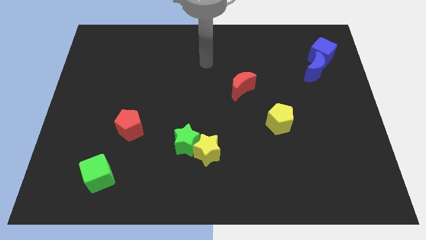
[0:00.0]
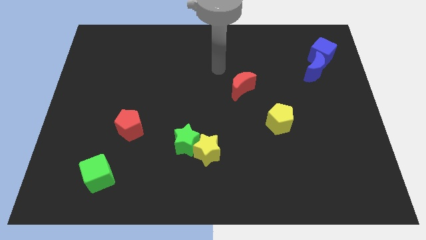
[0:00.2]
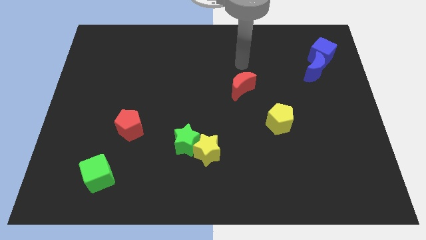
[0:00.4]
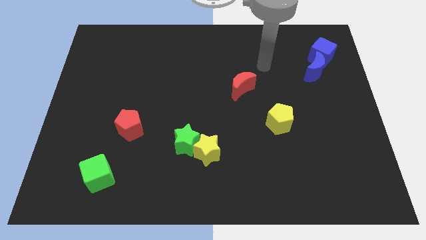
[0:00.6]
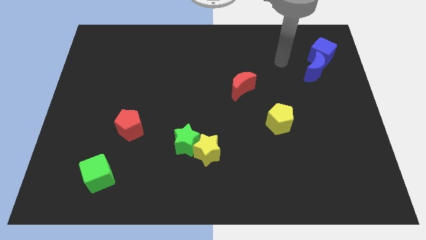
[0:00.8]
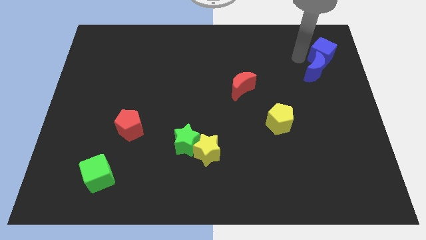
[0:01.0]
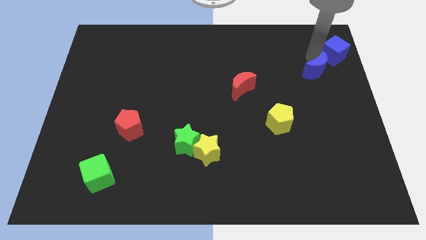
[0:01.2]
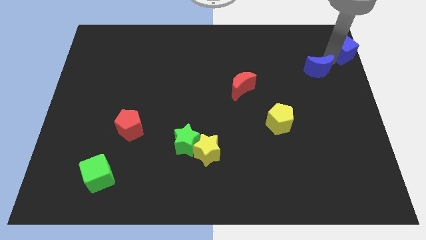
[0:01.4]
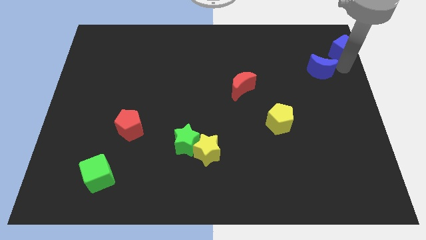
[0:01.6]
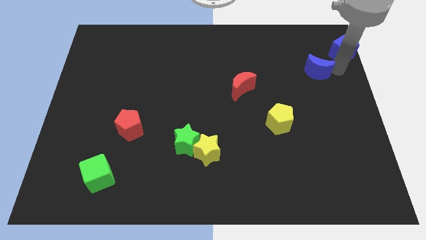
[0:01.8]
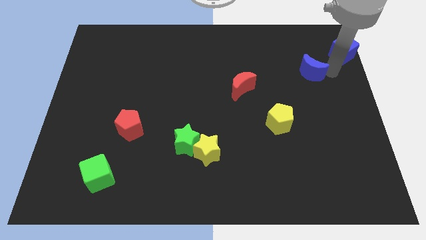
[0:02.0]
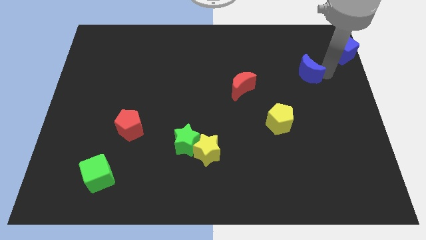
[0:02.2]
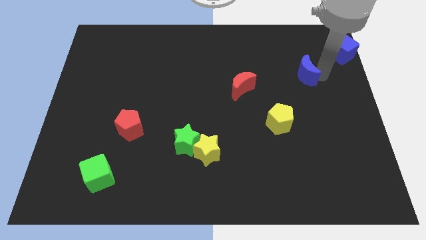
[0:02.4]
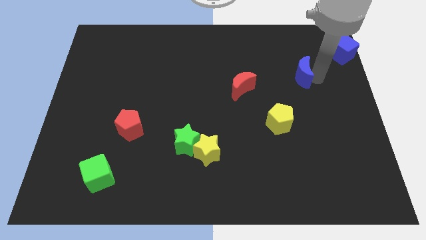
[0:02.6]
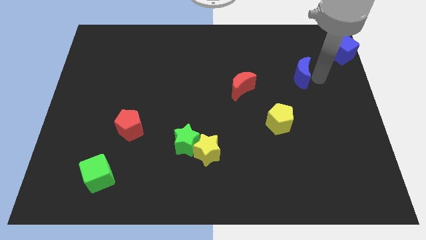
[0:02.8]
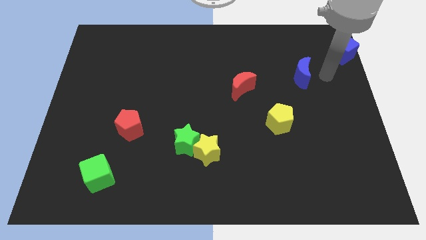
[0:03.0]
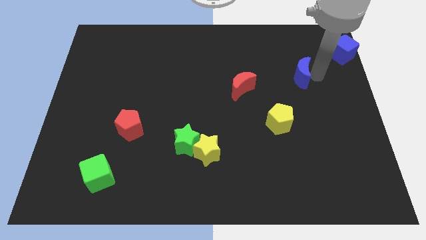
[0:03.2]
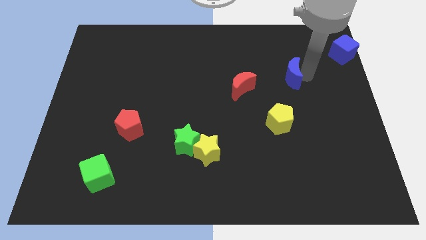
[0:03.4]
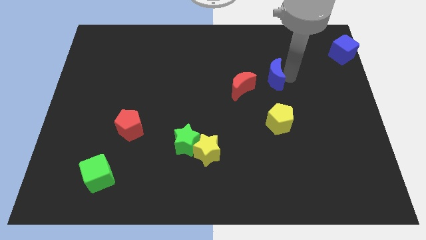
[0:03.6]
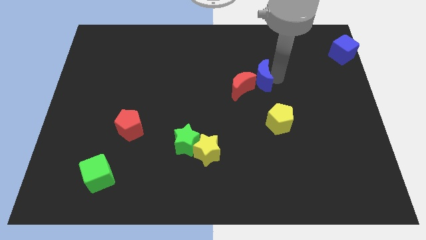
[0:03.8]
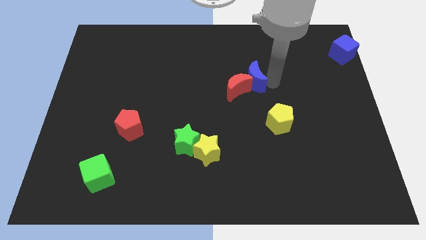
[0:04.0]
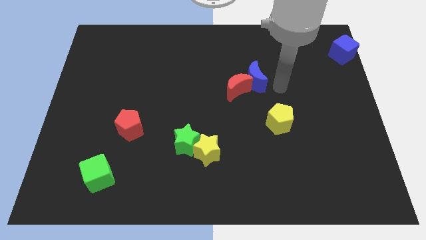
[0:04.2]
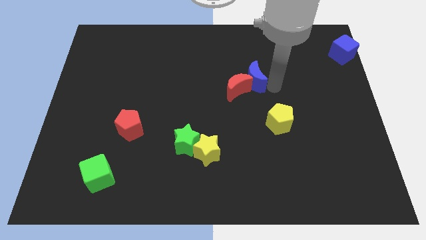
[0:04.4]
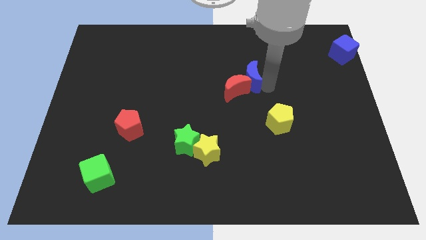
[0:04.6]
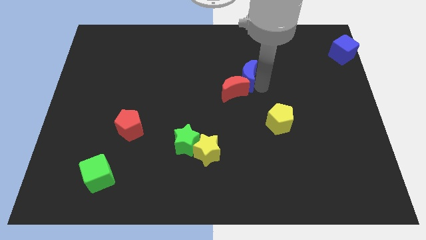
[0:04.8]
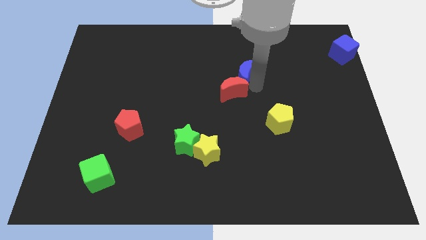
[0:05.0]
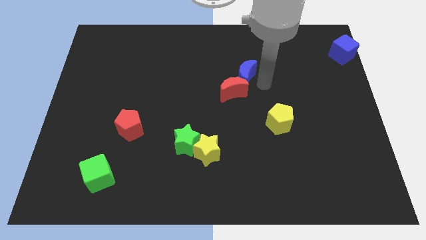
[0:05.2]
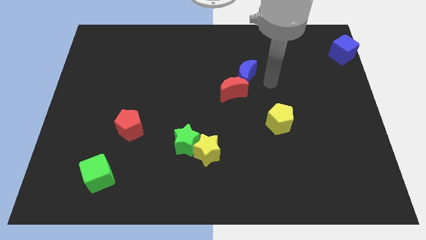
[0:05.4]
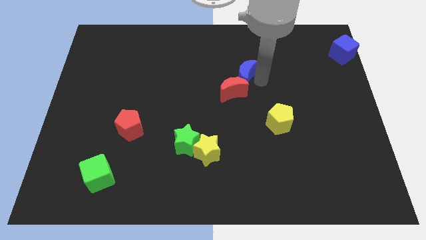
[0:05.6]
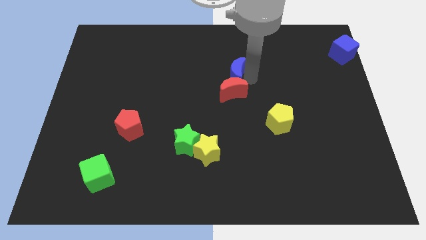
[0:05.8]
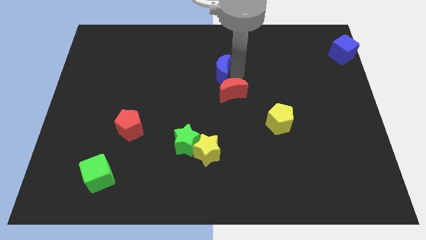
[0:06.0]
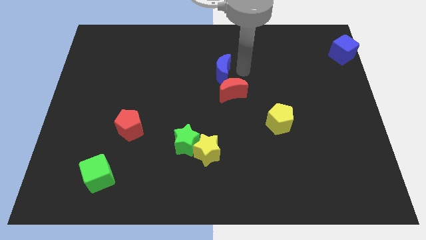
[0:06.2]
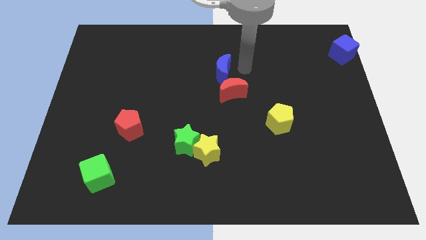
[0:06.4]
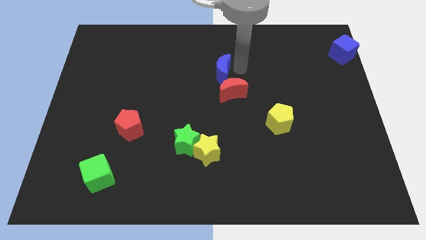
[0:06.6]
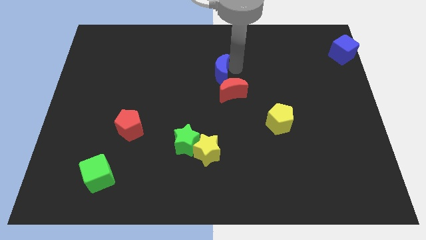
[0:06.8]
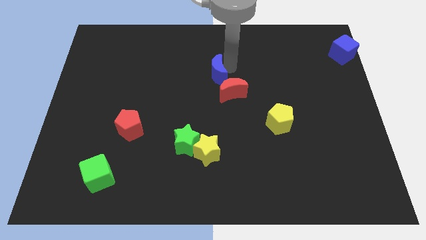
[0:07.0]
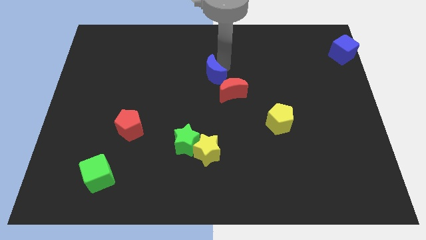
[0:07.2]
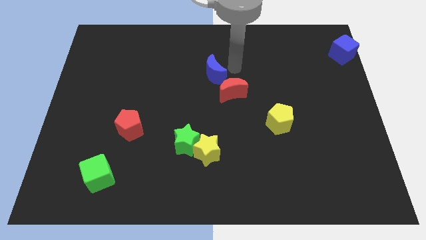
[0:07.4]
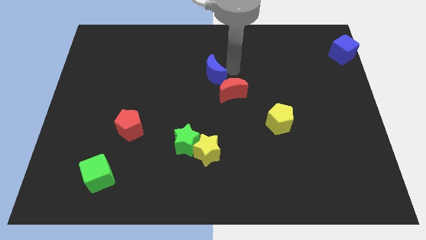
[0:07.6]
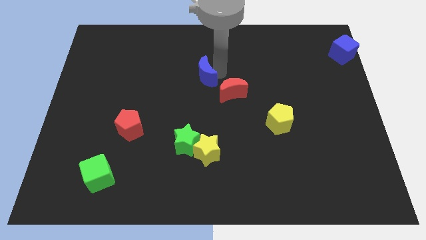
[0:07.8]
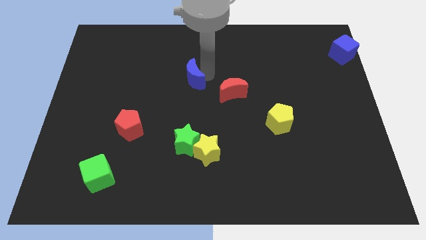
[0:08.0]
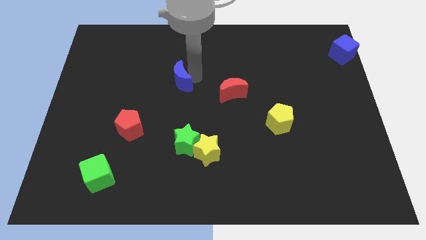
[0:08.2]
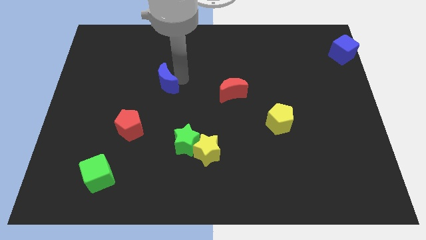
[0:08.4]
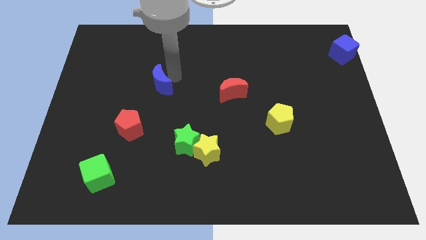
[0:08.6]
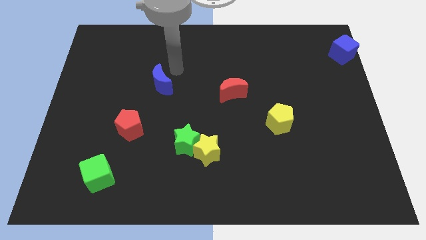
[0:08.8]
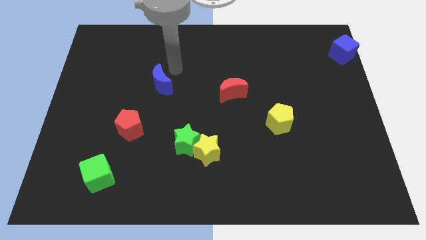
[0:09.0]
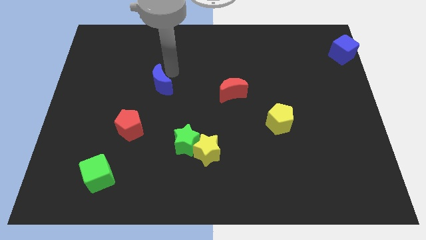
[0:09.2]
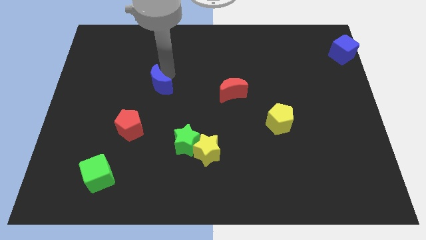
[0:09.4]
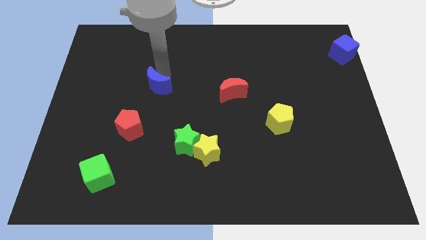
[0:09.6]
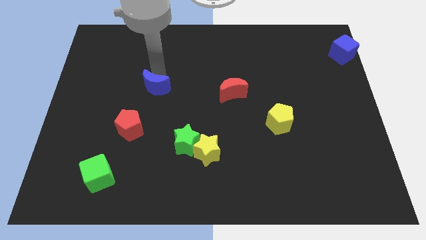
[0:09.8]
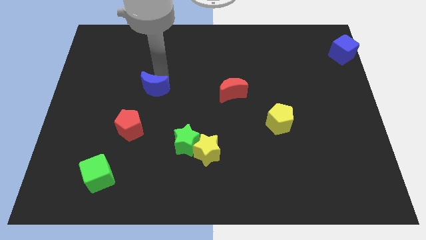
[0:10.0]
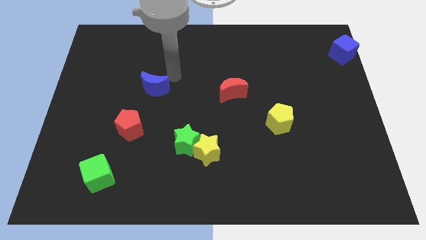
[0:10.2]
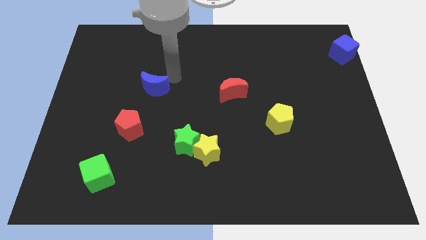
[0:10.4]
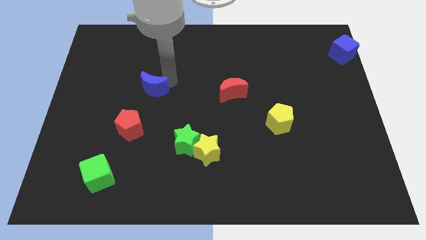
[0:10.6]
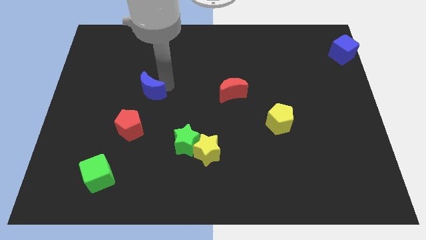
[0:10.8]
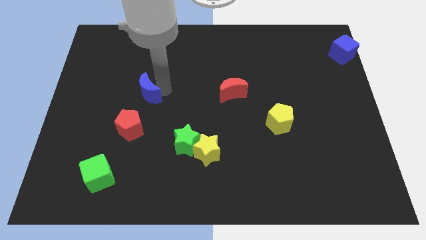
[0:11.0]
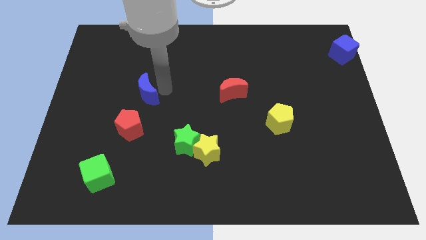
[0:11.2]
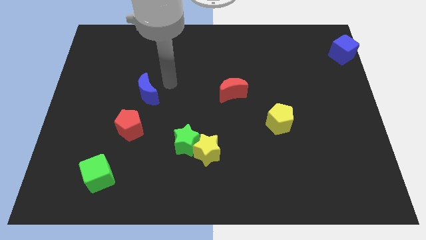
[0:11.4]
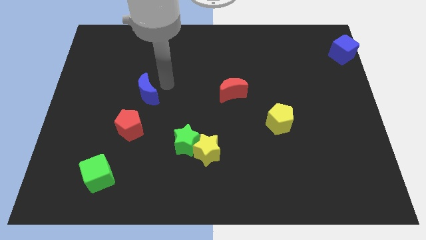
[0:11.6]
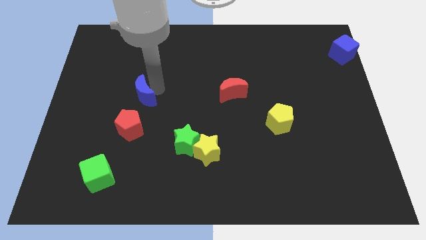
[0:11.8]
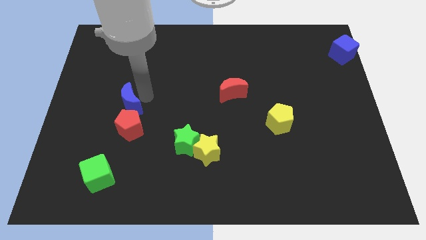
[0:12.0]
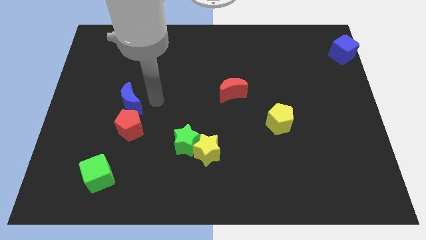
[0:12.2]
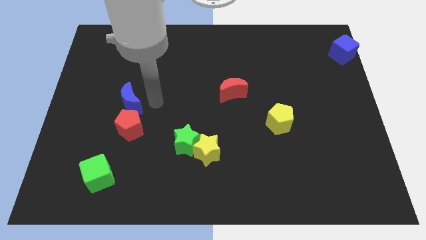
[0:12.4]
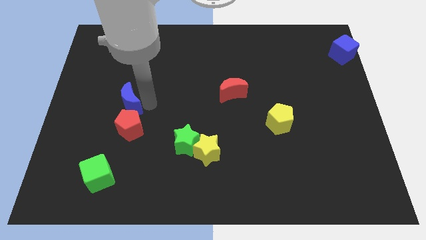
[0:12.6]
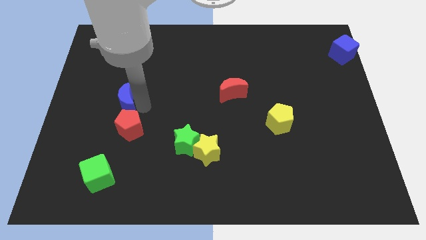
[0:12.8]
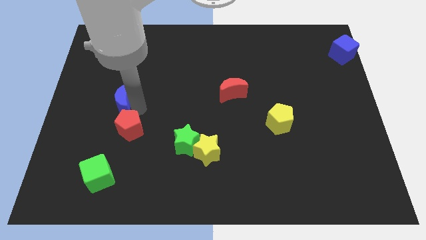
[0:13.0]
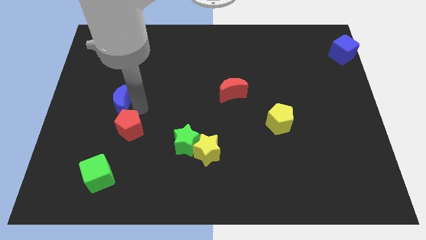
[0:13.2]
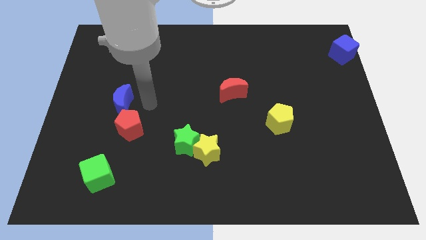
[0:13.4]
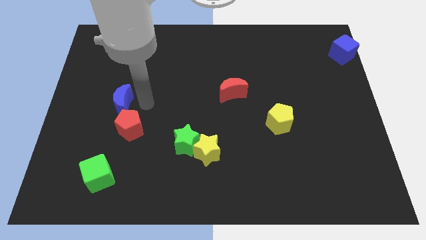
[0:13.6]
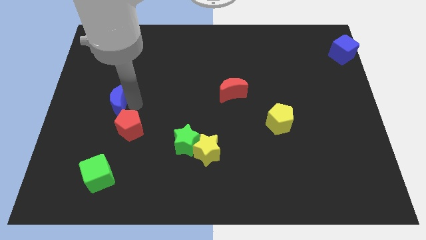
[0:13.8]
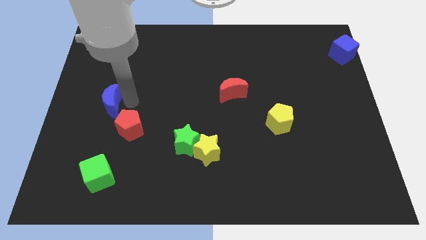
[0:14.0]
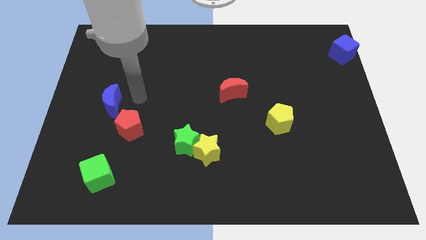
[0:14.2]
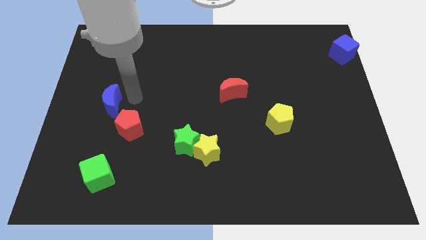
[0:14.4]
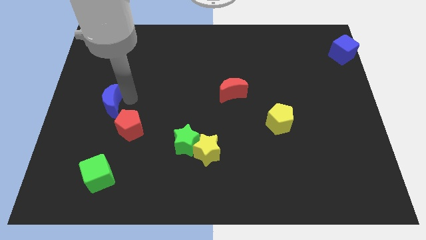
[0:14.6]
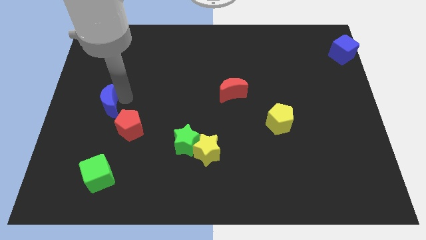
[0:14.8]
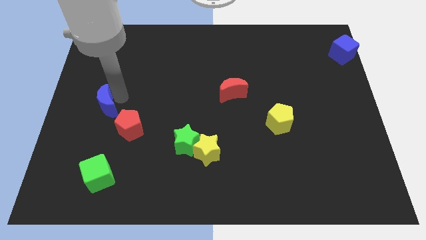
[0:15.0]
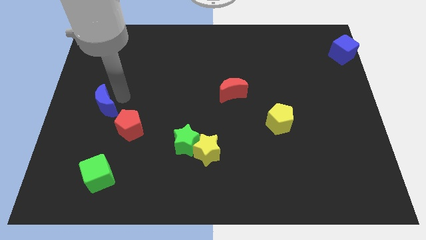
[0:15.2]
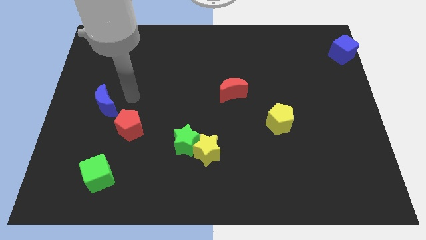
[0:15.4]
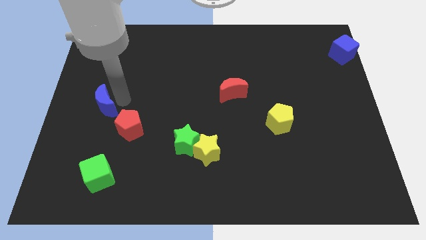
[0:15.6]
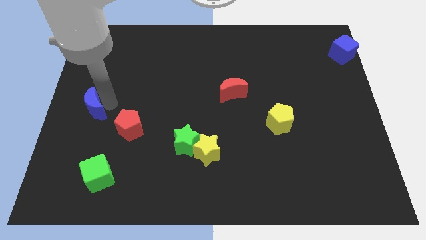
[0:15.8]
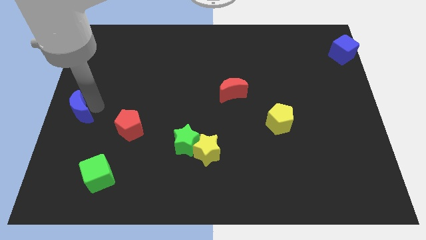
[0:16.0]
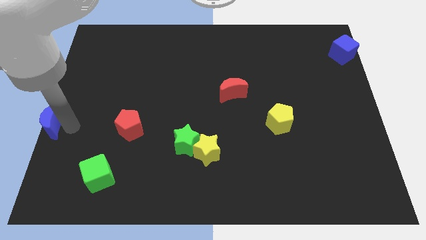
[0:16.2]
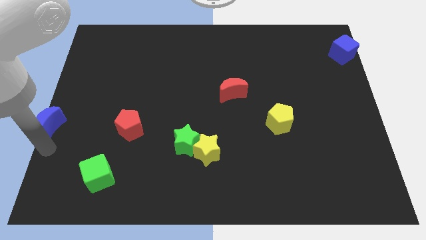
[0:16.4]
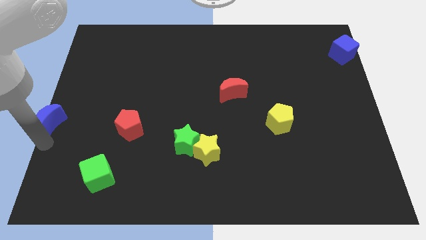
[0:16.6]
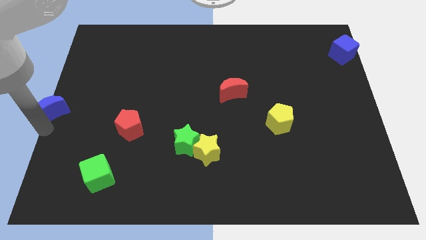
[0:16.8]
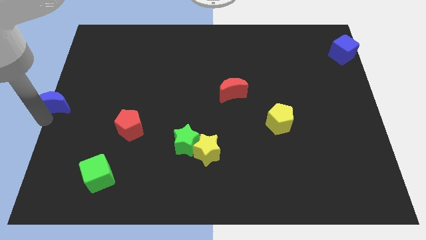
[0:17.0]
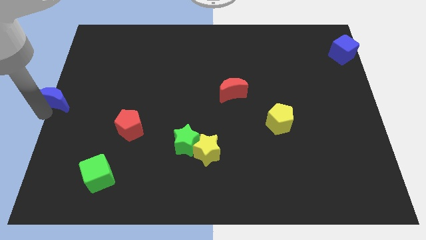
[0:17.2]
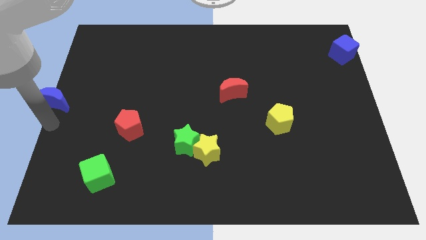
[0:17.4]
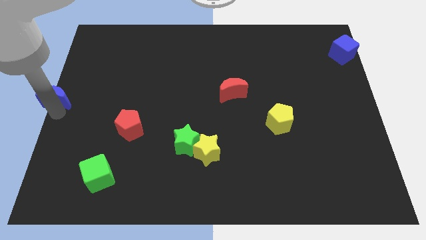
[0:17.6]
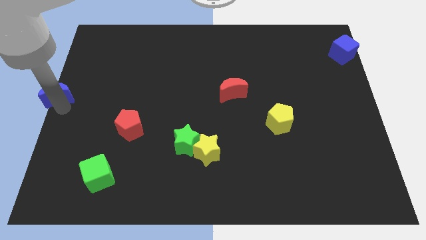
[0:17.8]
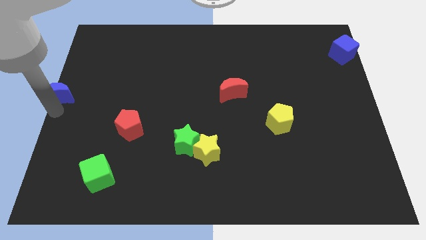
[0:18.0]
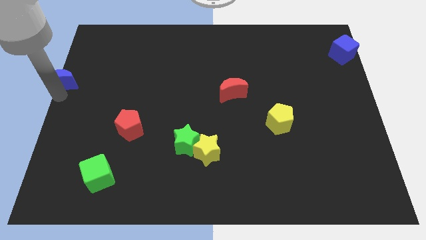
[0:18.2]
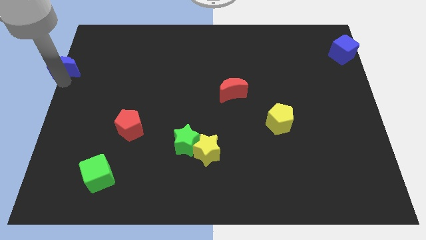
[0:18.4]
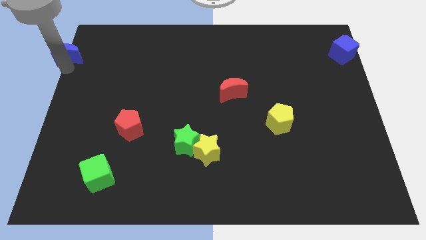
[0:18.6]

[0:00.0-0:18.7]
push the blue moon to the top left of the board
